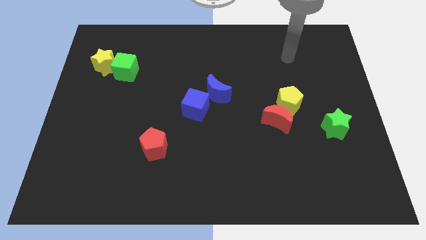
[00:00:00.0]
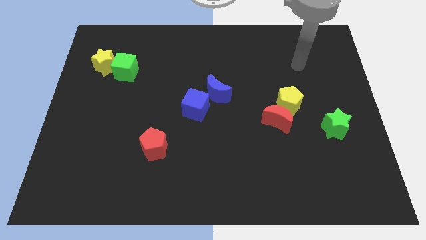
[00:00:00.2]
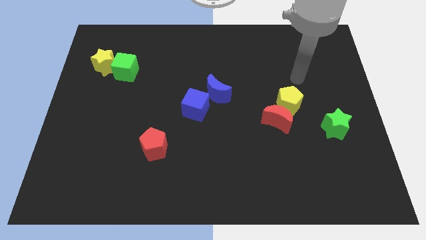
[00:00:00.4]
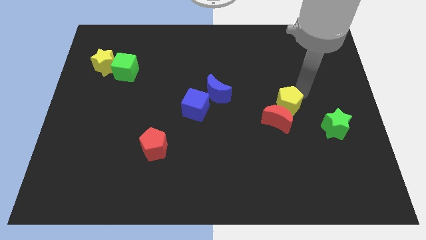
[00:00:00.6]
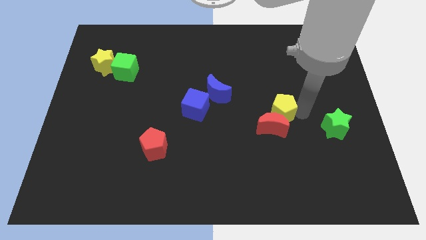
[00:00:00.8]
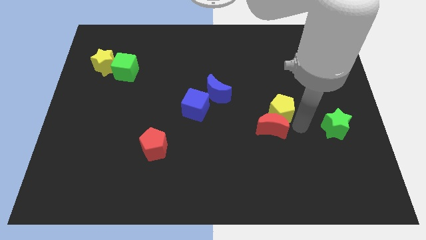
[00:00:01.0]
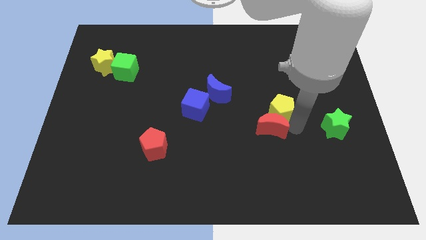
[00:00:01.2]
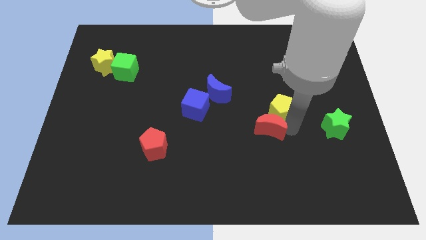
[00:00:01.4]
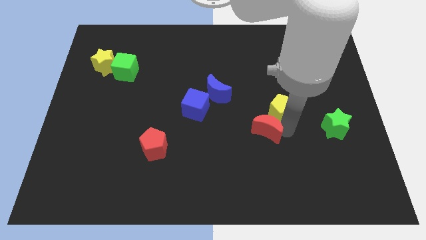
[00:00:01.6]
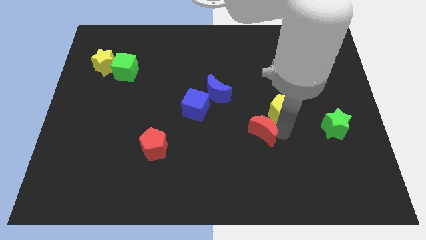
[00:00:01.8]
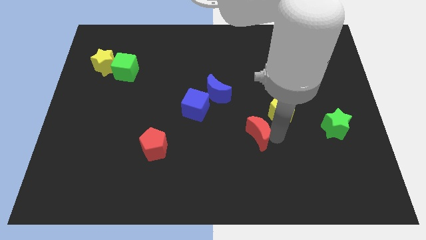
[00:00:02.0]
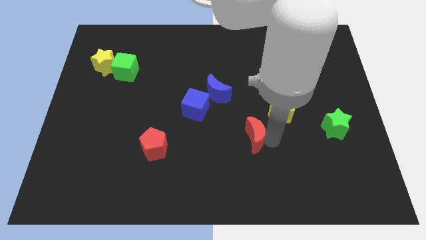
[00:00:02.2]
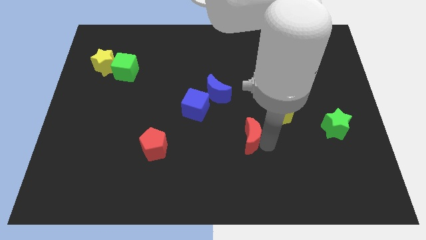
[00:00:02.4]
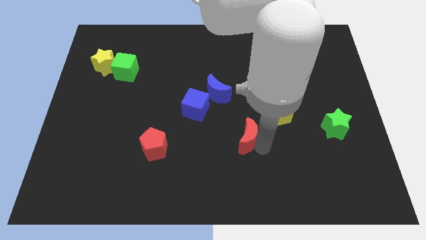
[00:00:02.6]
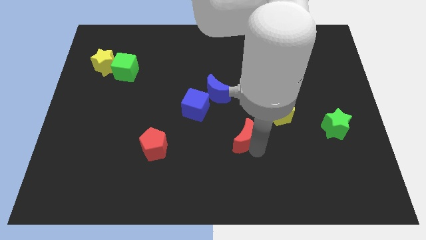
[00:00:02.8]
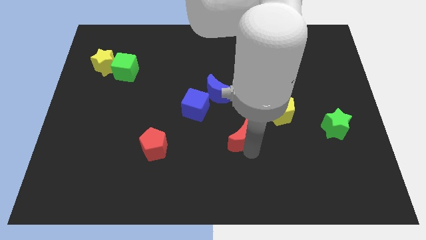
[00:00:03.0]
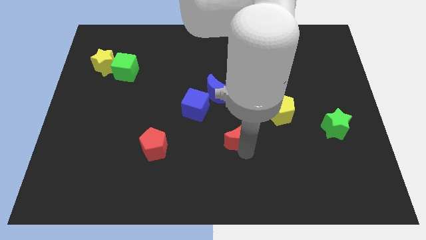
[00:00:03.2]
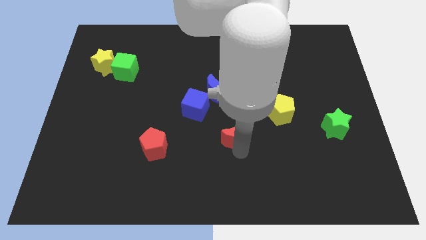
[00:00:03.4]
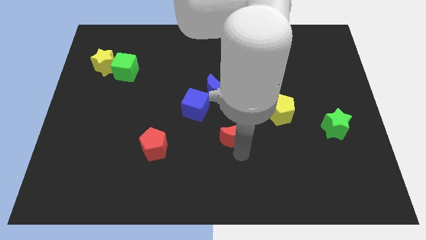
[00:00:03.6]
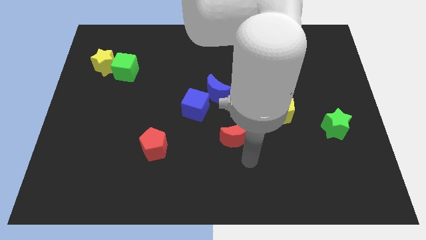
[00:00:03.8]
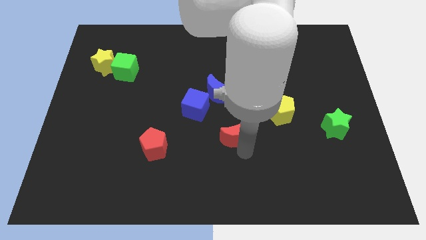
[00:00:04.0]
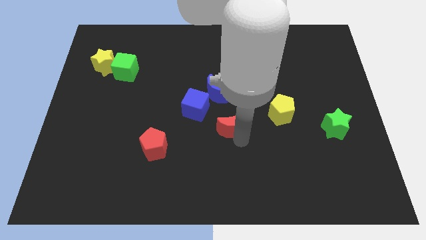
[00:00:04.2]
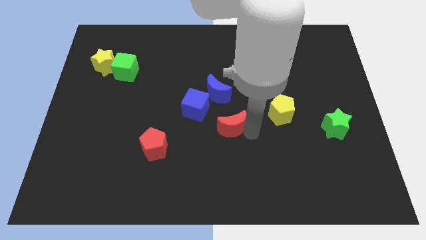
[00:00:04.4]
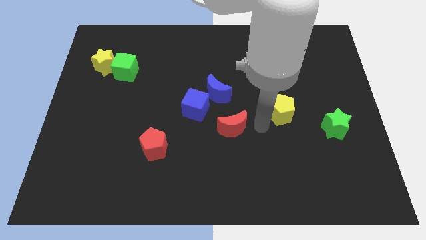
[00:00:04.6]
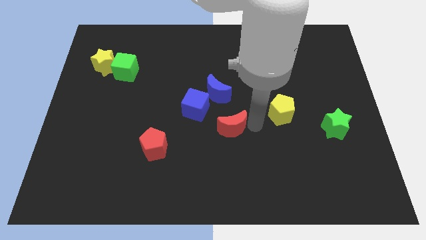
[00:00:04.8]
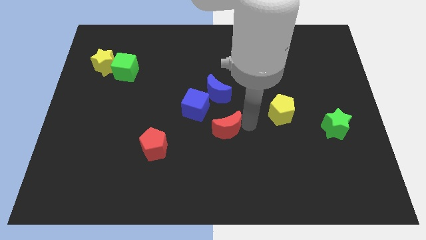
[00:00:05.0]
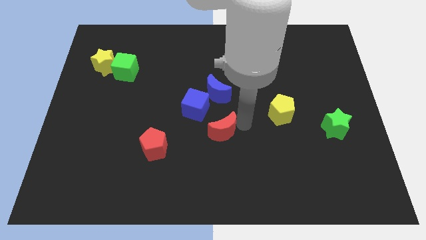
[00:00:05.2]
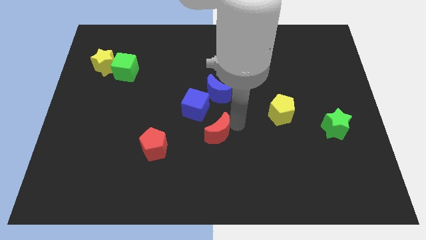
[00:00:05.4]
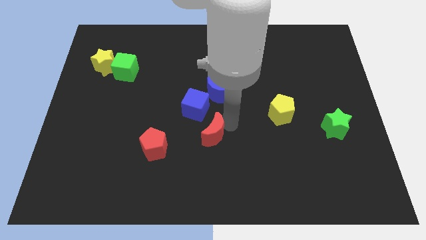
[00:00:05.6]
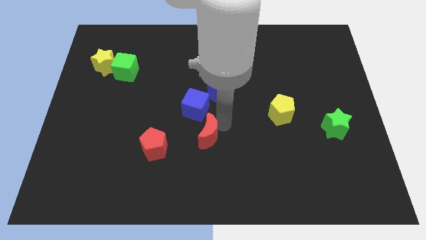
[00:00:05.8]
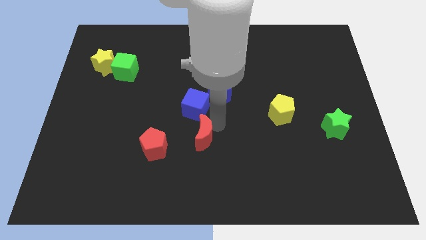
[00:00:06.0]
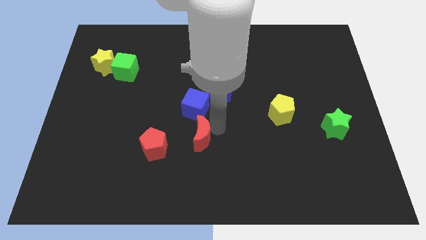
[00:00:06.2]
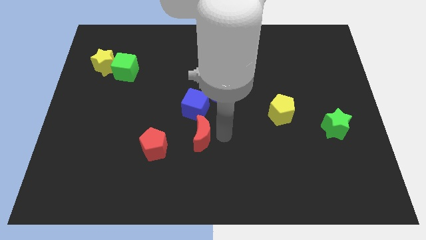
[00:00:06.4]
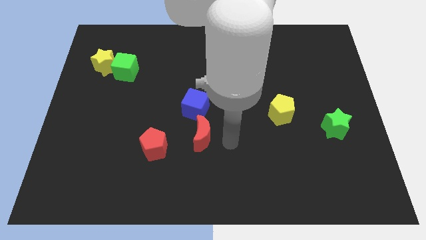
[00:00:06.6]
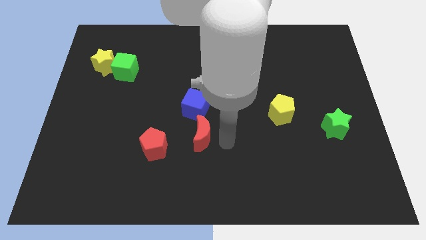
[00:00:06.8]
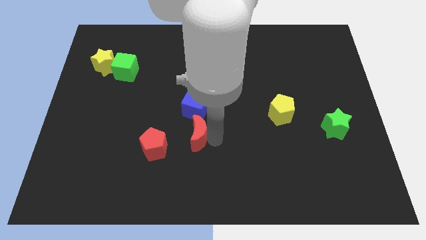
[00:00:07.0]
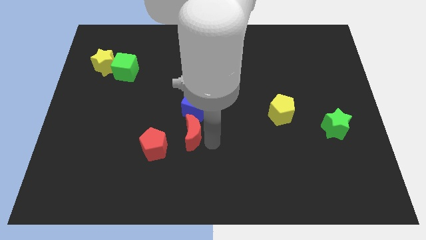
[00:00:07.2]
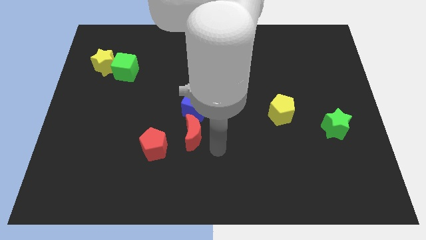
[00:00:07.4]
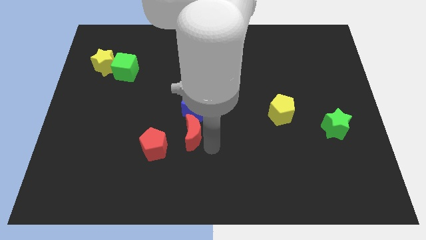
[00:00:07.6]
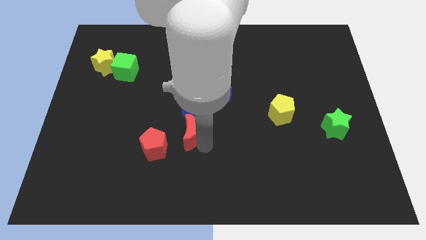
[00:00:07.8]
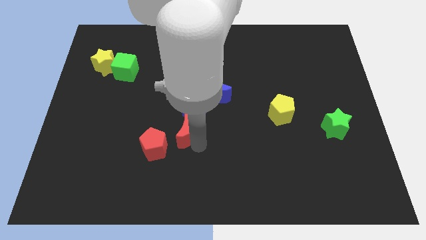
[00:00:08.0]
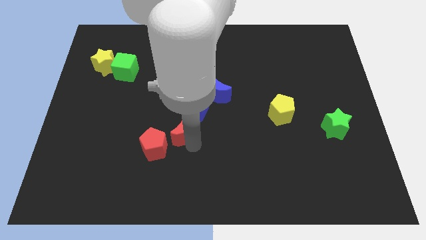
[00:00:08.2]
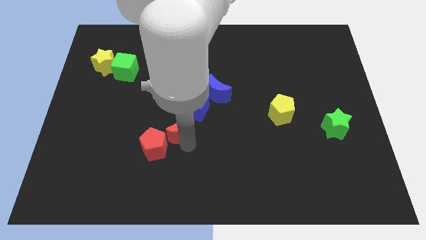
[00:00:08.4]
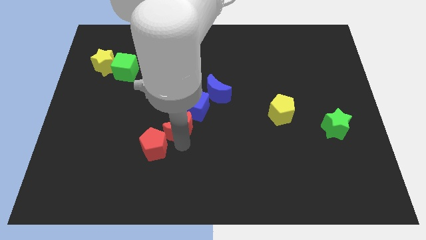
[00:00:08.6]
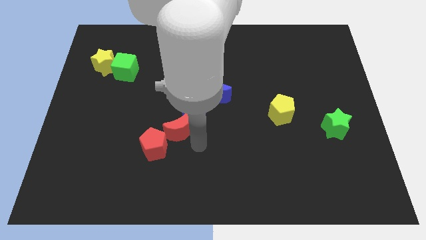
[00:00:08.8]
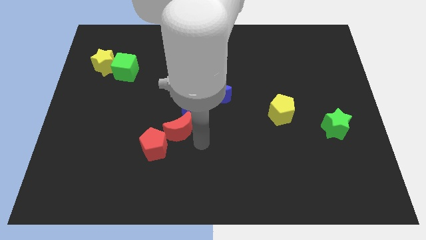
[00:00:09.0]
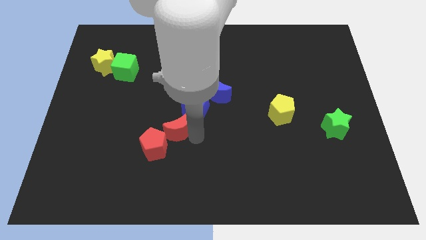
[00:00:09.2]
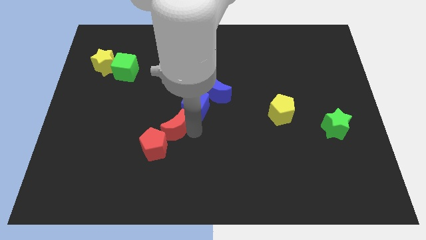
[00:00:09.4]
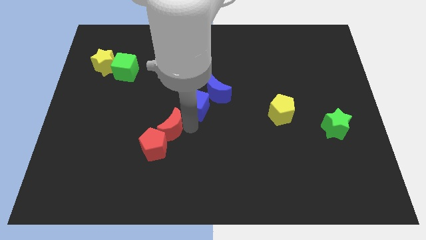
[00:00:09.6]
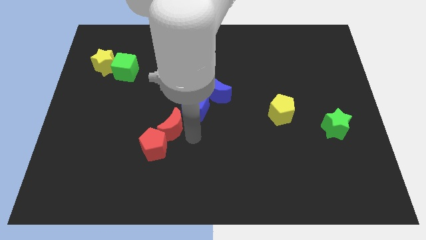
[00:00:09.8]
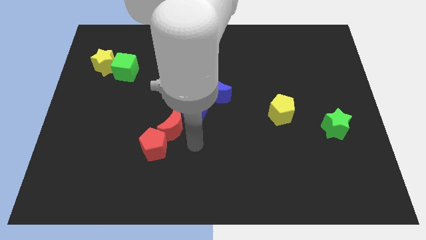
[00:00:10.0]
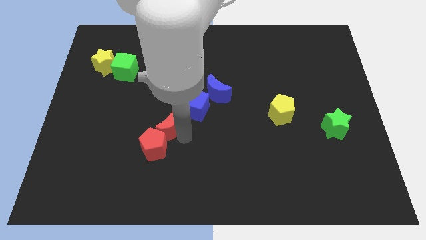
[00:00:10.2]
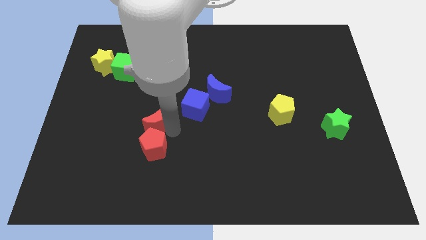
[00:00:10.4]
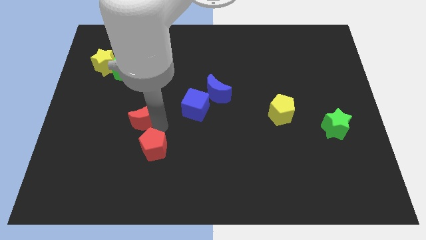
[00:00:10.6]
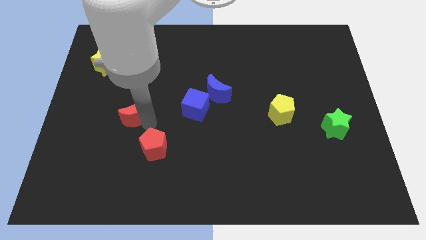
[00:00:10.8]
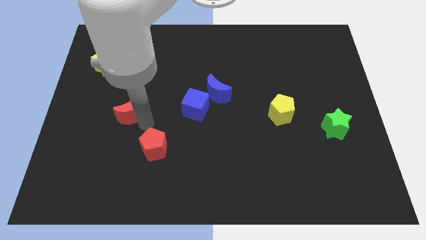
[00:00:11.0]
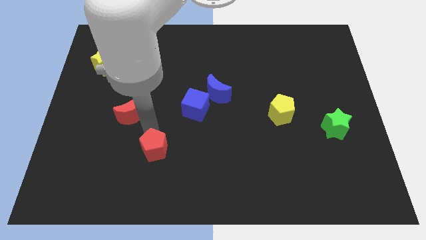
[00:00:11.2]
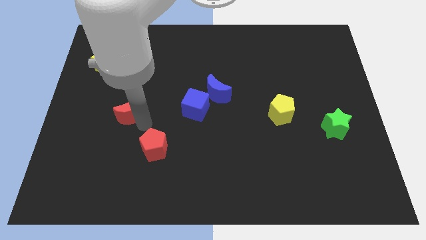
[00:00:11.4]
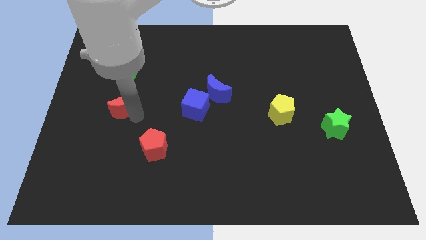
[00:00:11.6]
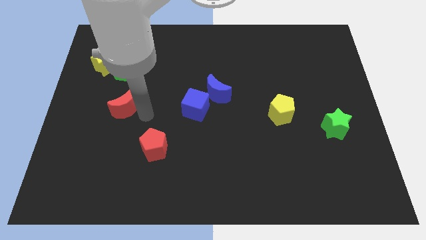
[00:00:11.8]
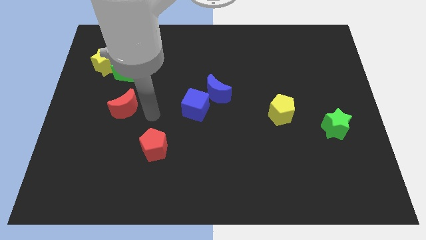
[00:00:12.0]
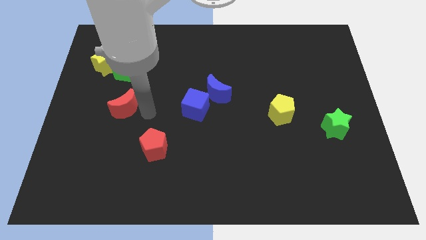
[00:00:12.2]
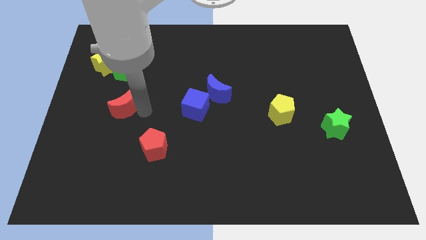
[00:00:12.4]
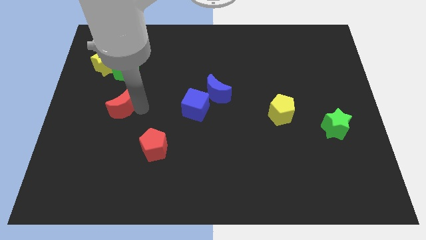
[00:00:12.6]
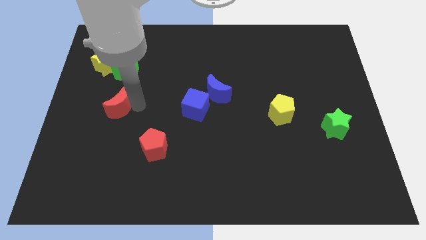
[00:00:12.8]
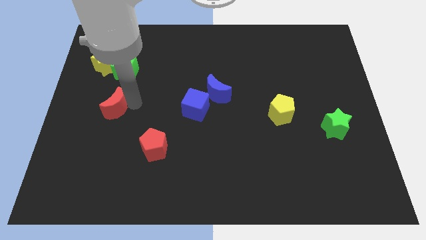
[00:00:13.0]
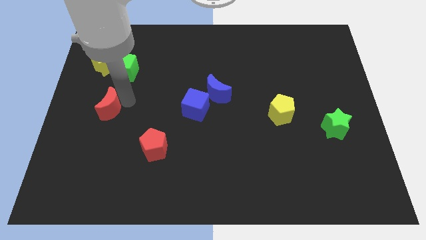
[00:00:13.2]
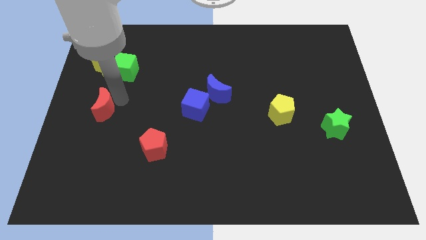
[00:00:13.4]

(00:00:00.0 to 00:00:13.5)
slide the red moon to the left side of the board
